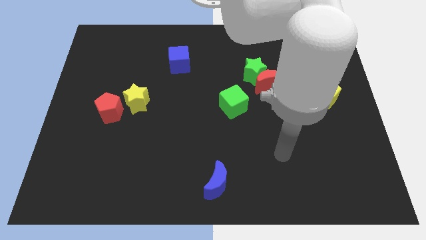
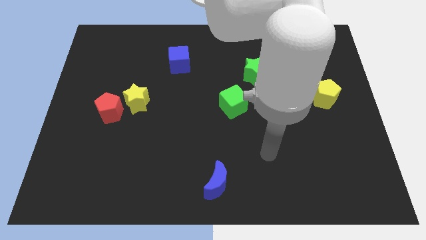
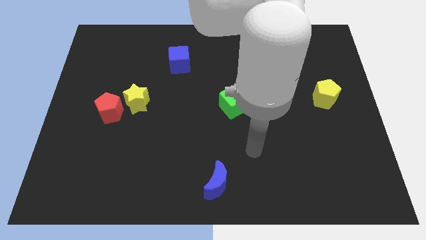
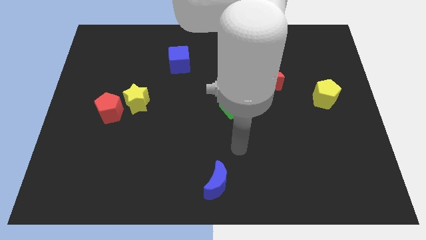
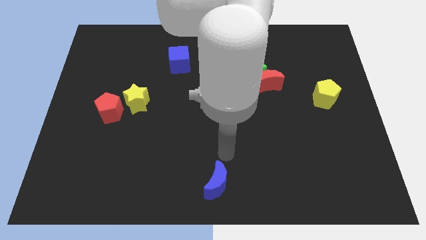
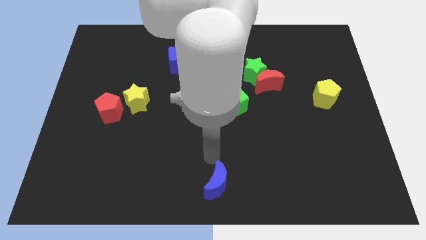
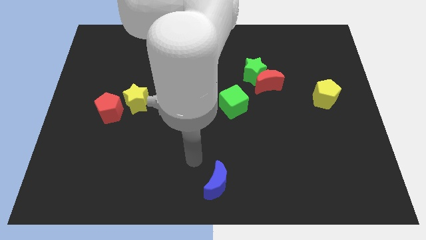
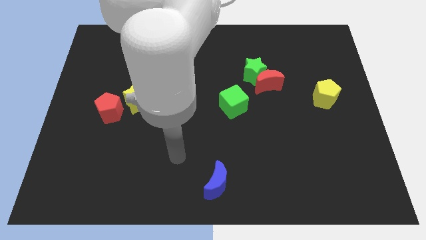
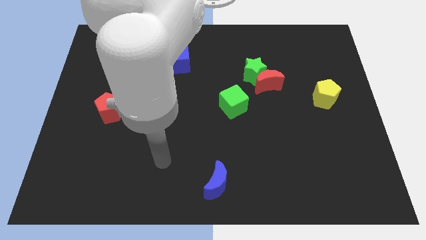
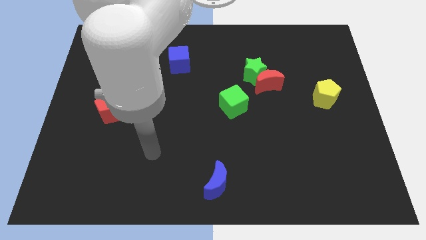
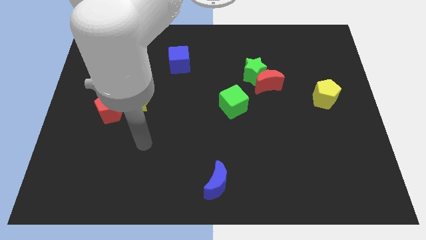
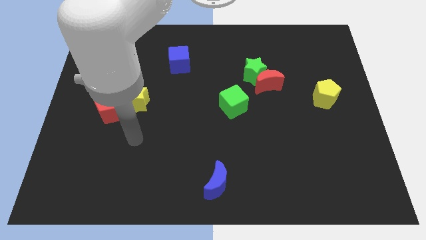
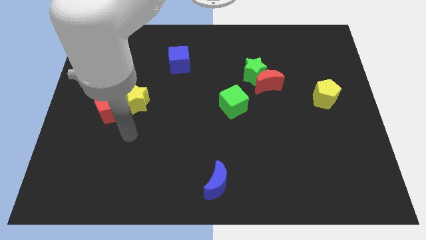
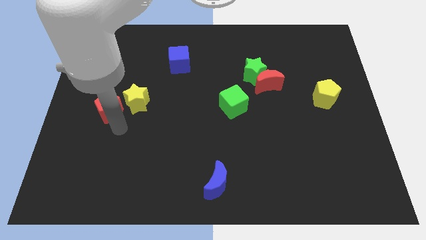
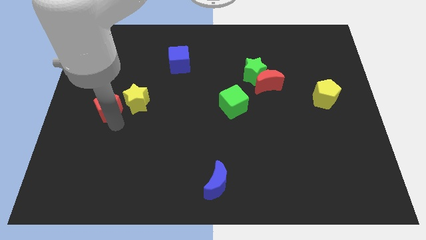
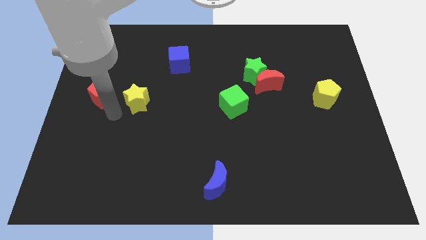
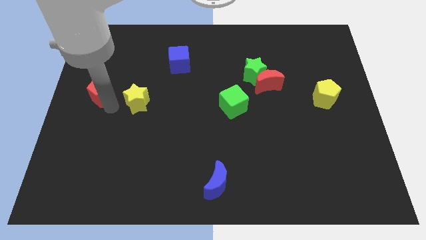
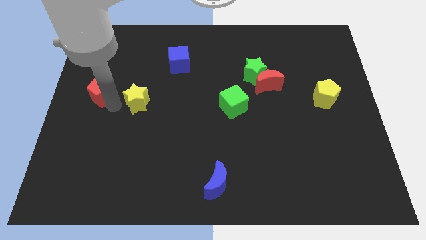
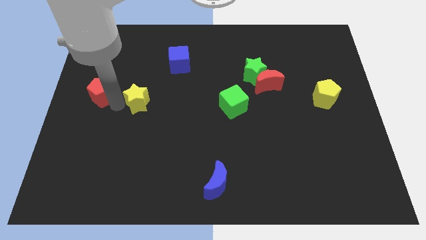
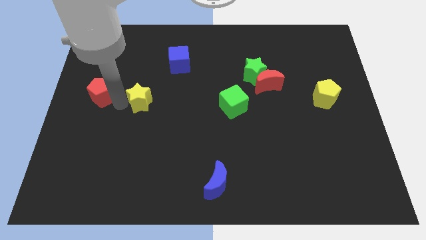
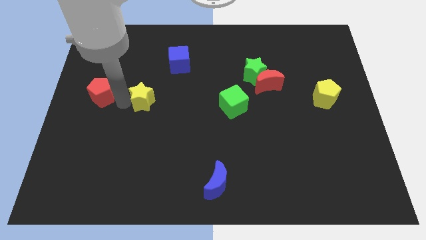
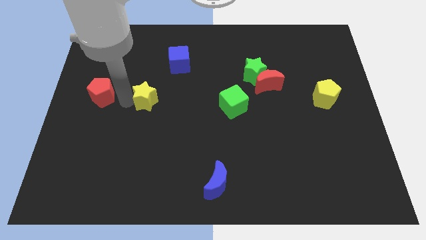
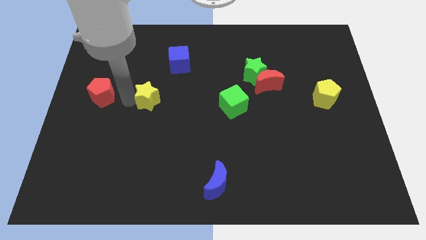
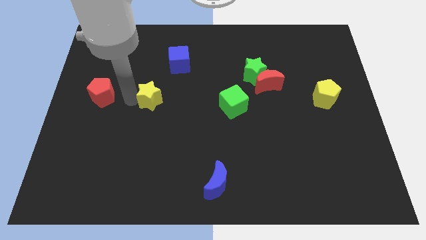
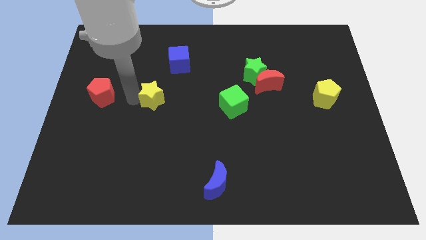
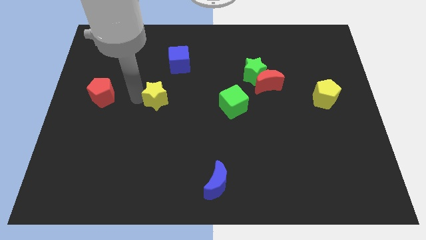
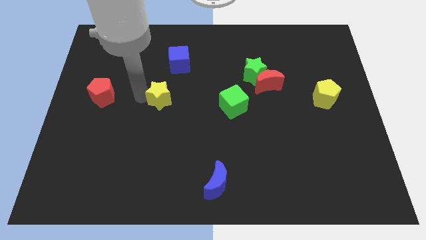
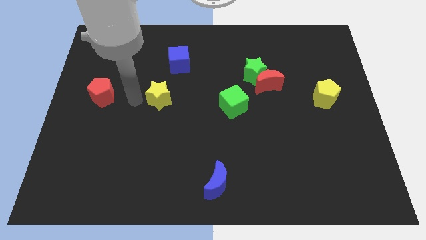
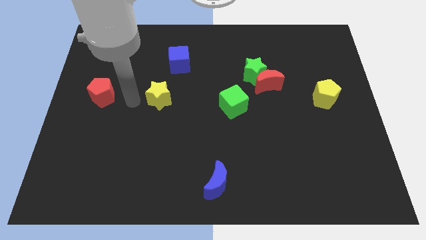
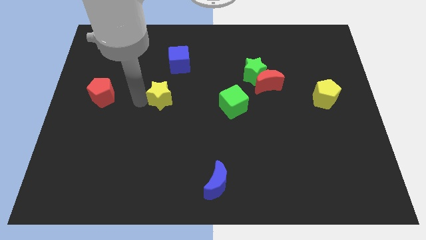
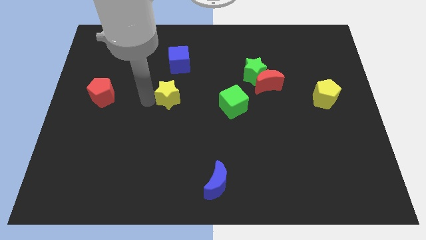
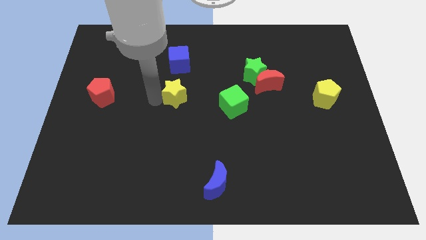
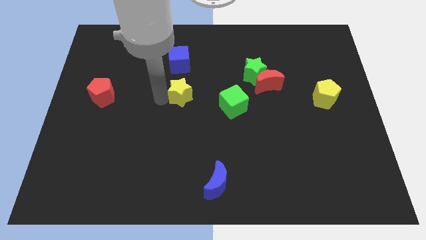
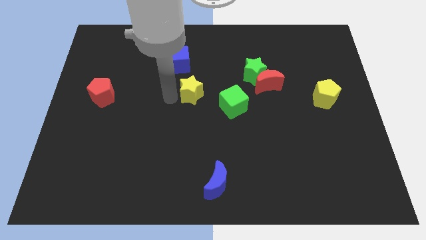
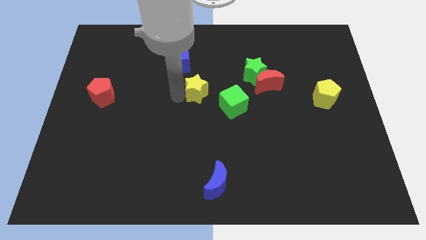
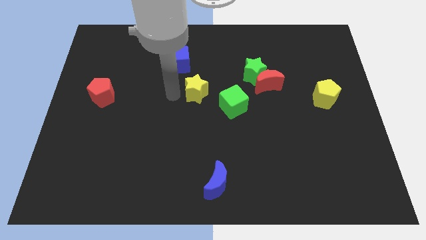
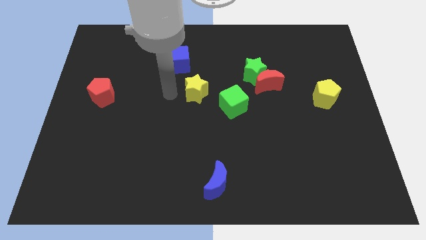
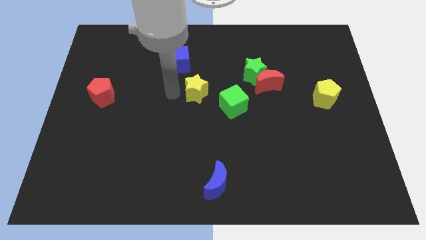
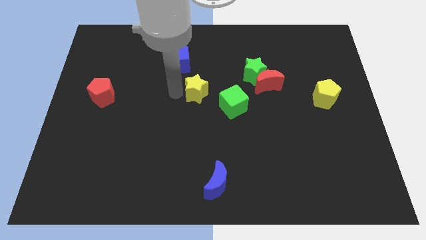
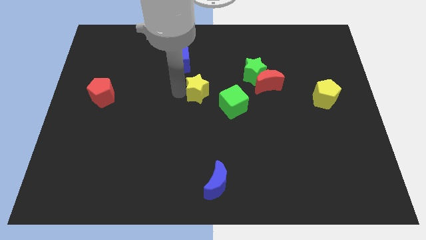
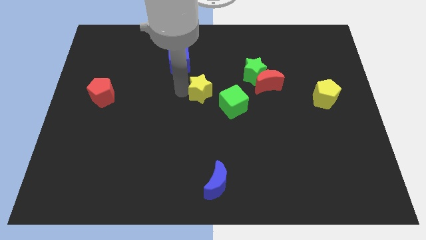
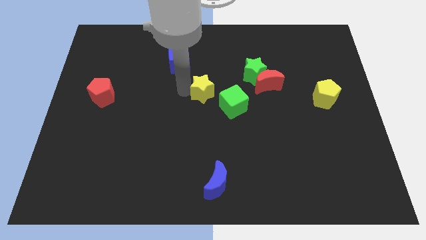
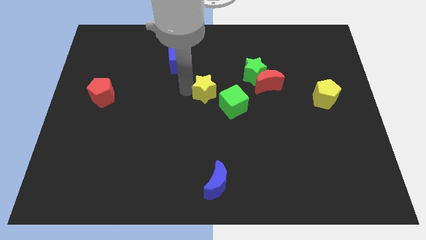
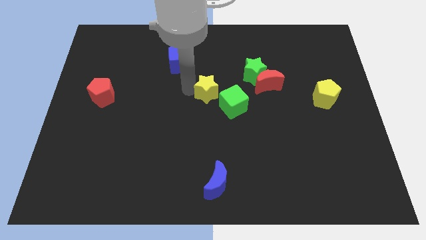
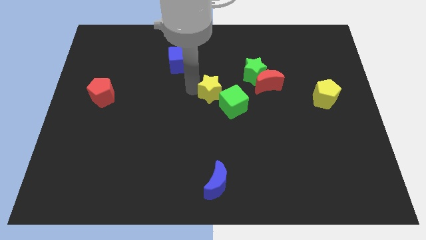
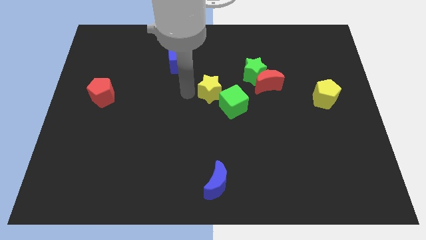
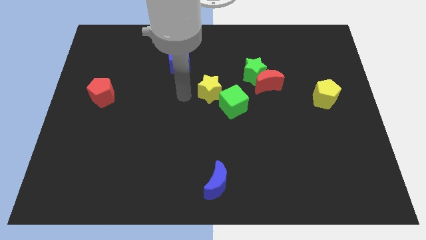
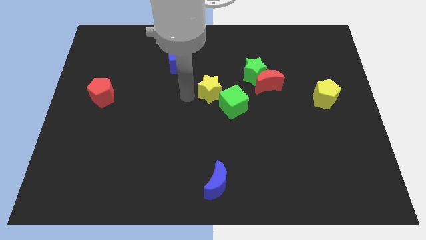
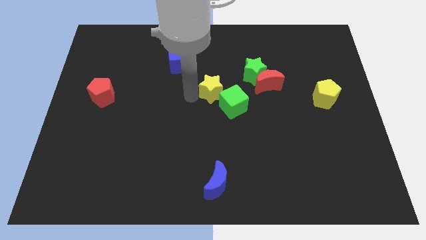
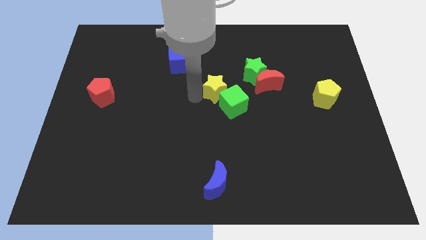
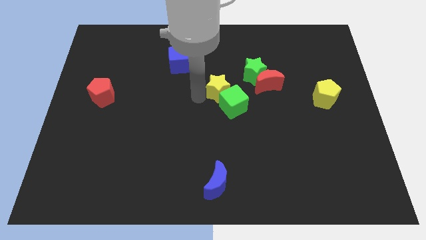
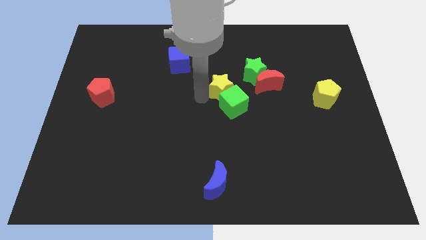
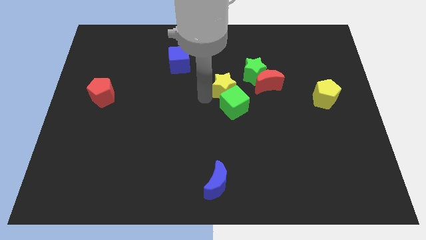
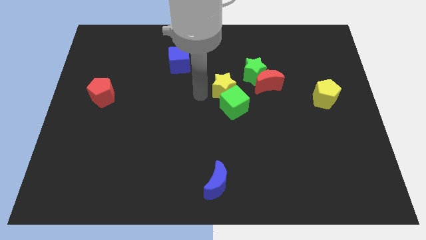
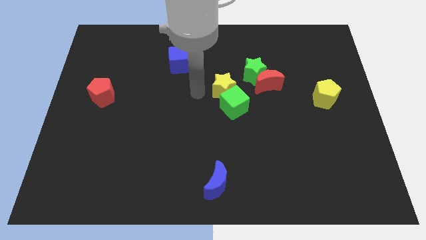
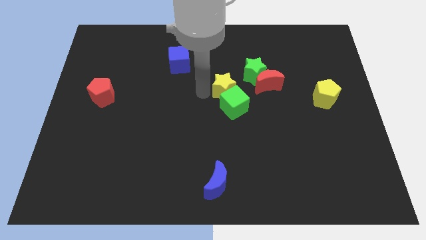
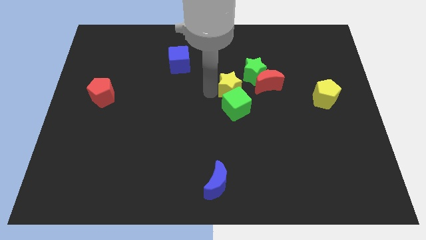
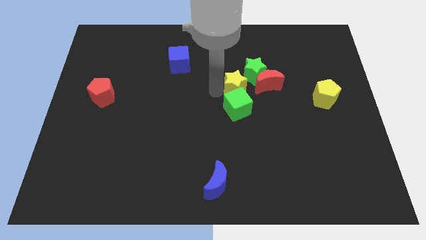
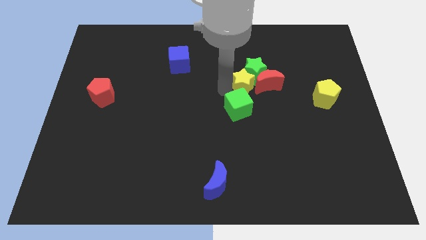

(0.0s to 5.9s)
move the yellow star next to the red moon

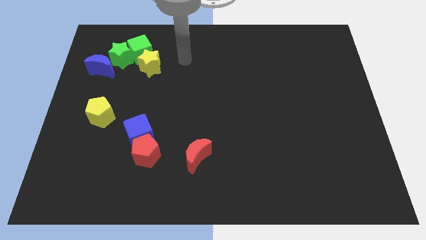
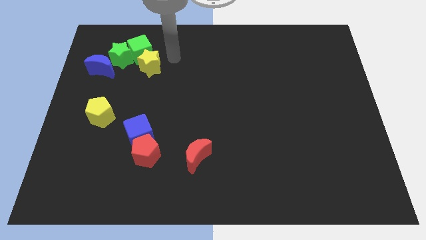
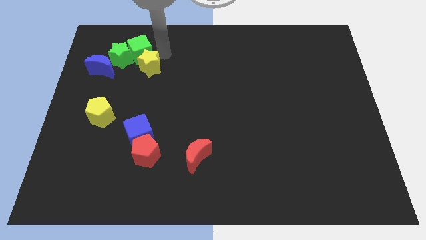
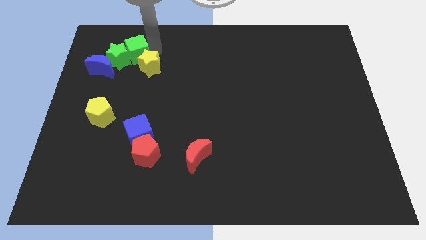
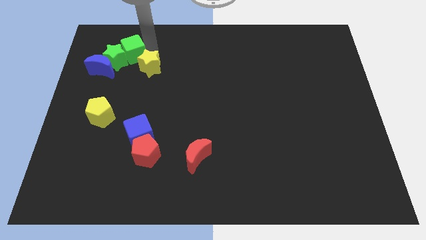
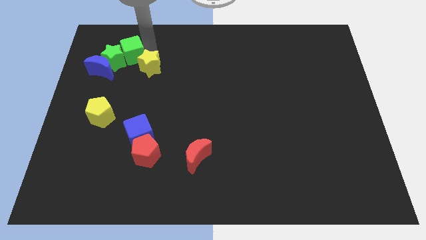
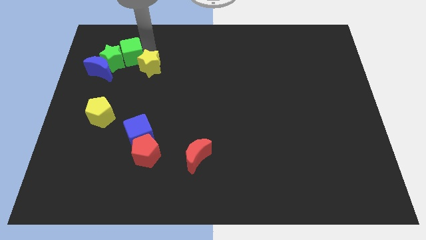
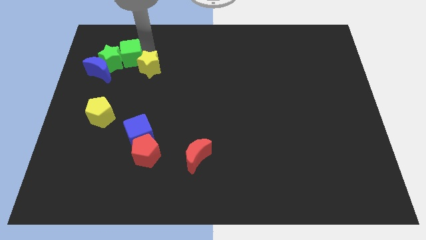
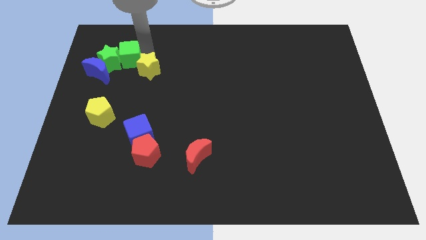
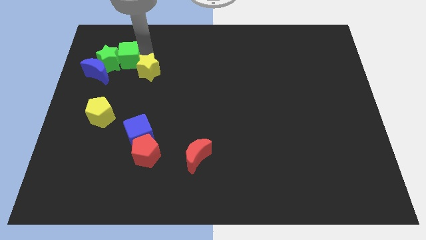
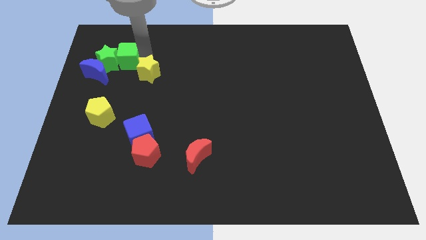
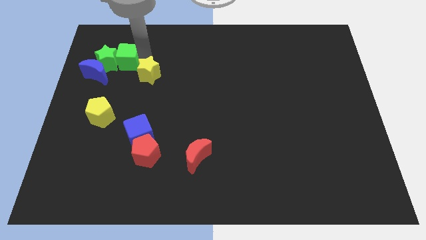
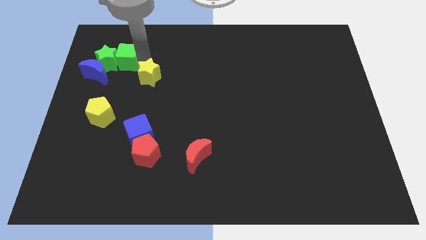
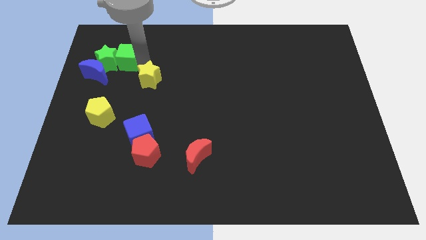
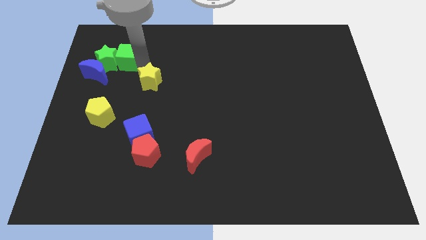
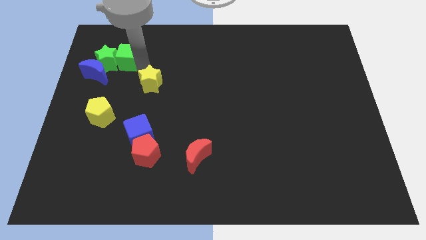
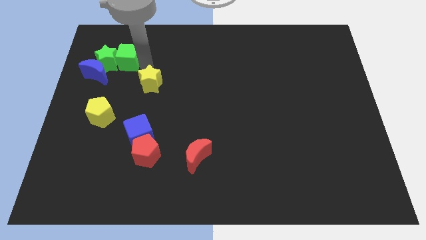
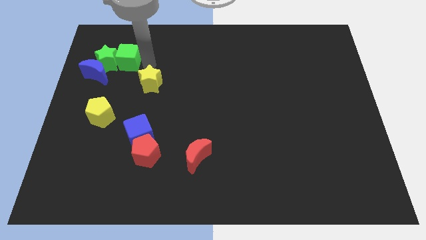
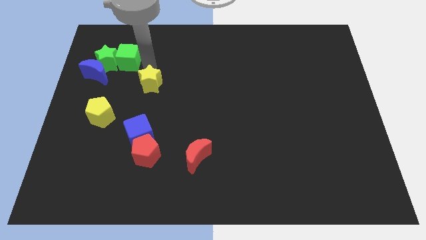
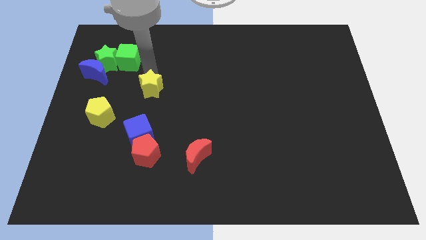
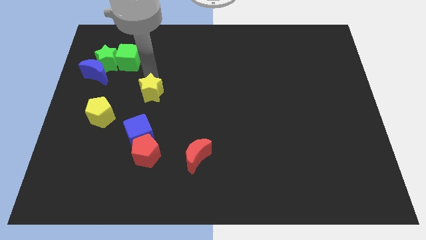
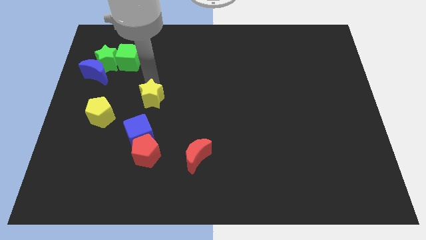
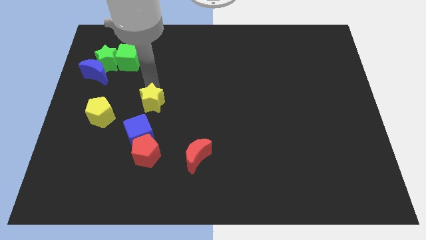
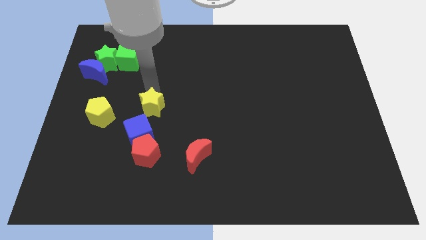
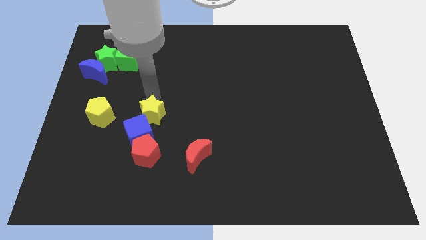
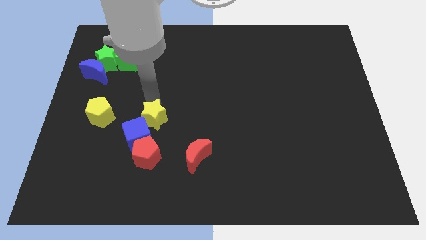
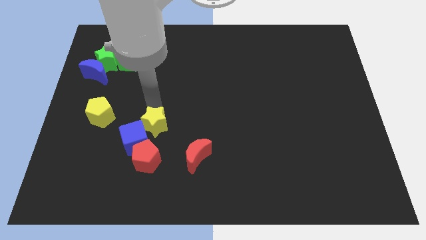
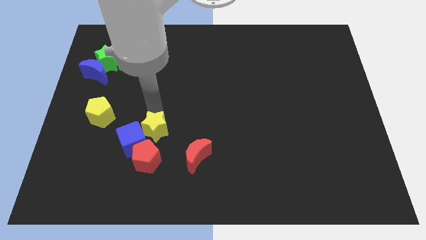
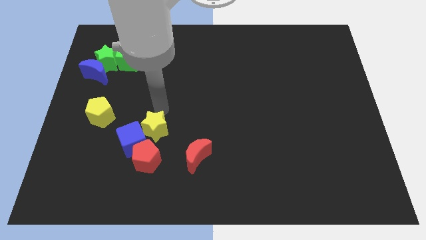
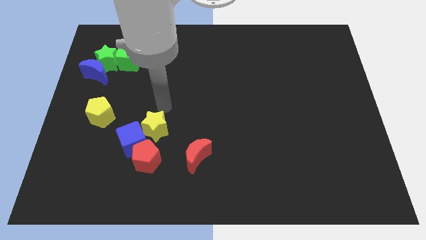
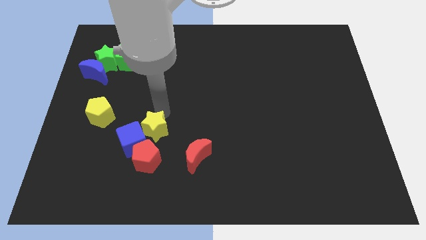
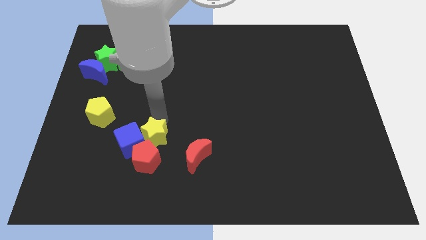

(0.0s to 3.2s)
put the yellow star to the red pentagon
